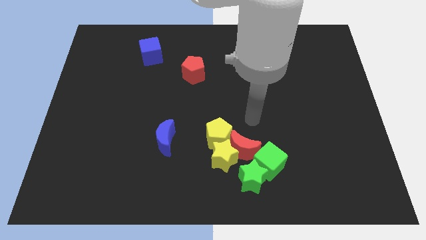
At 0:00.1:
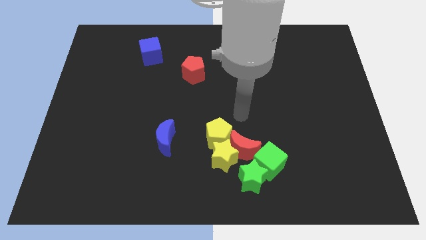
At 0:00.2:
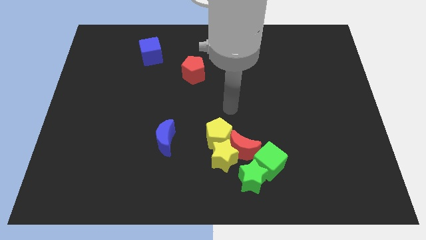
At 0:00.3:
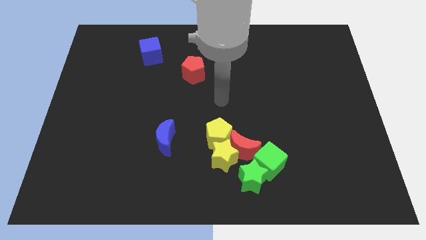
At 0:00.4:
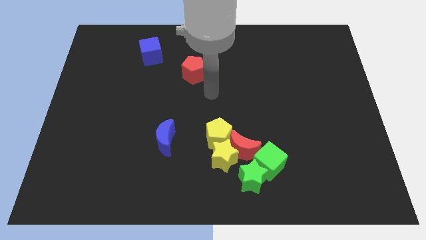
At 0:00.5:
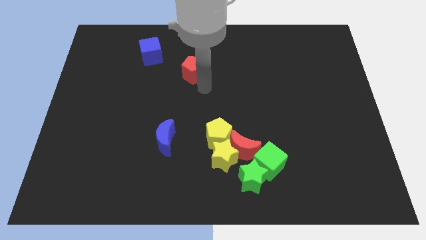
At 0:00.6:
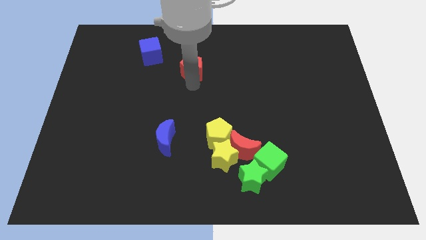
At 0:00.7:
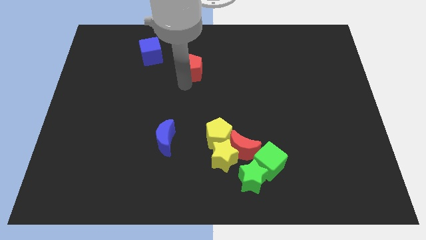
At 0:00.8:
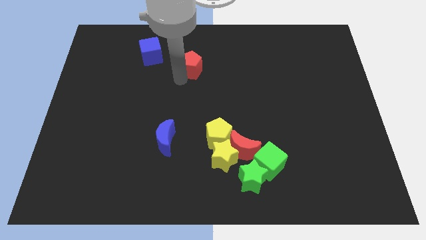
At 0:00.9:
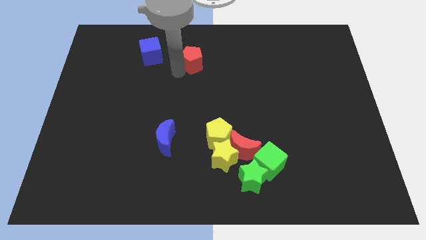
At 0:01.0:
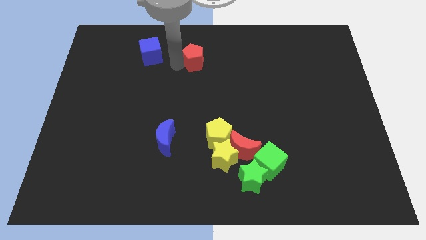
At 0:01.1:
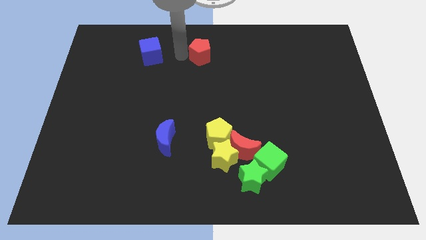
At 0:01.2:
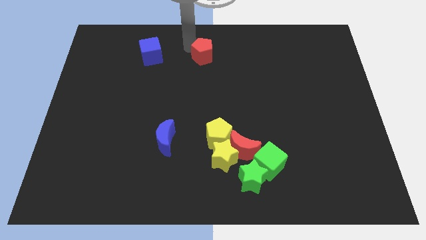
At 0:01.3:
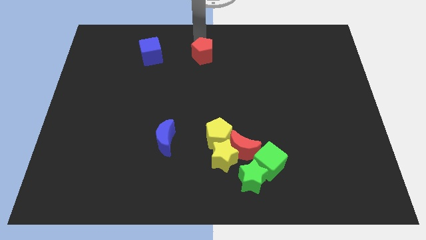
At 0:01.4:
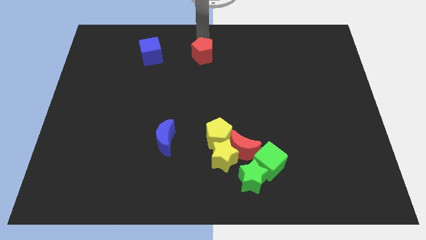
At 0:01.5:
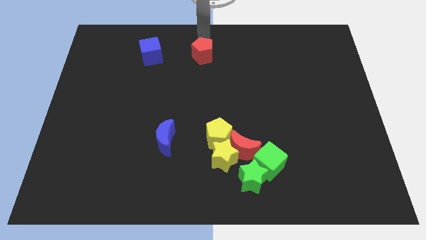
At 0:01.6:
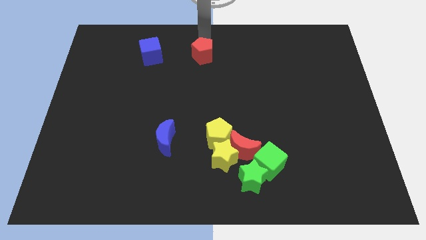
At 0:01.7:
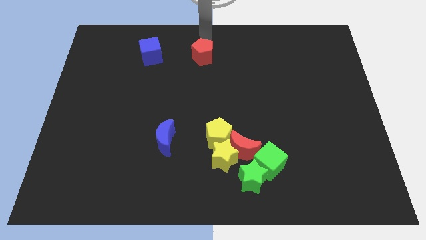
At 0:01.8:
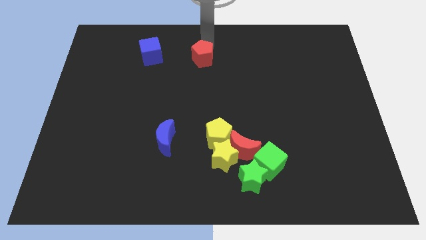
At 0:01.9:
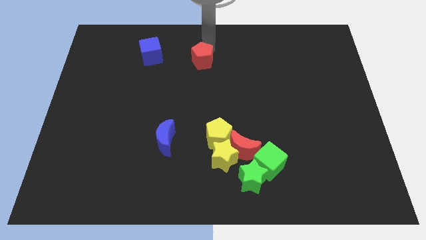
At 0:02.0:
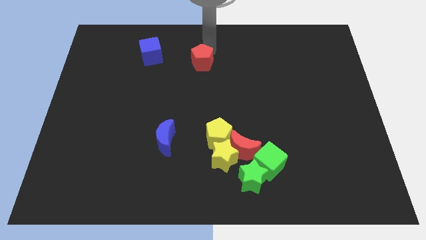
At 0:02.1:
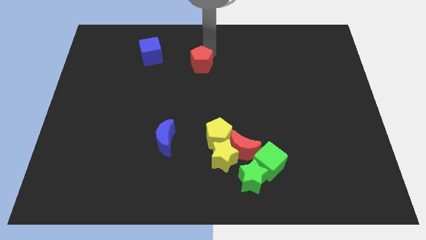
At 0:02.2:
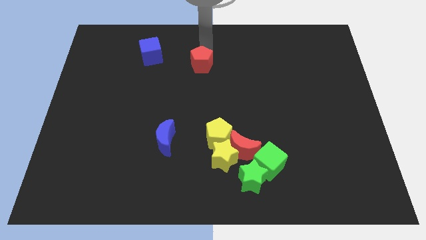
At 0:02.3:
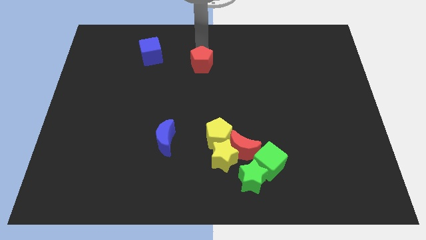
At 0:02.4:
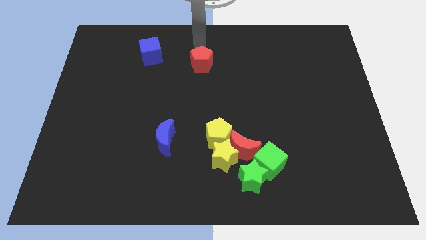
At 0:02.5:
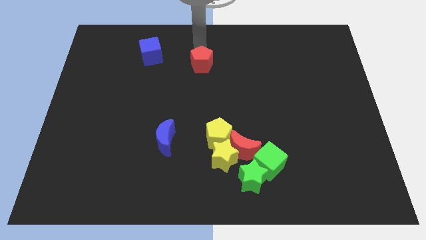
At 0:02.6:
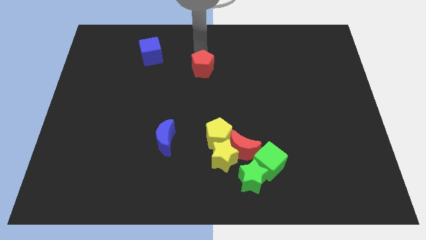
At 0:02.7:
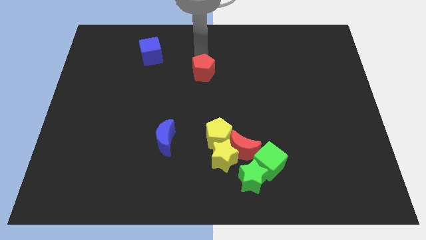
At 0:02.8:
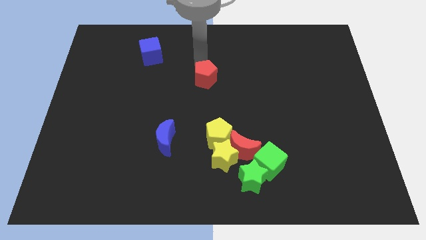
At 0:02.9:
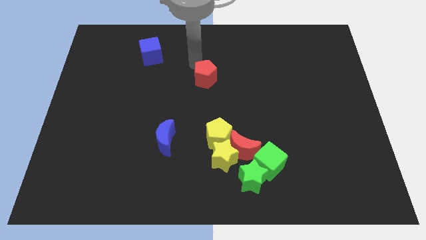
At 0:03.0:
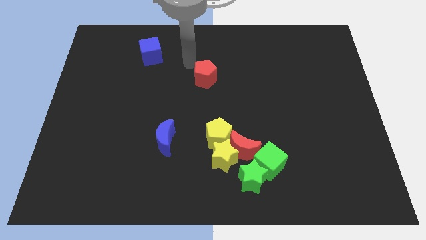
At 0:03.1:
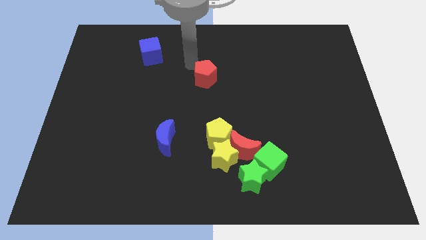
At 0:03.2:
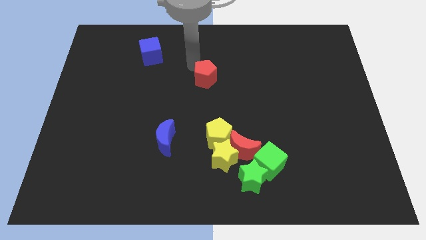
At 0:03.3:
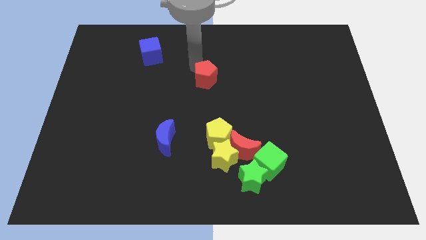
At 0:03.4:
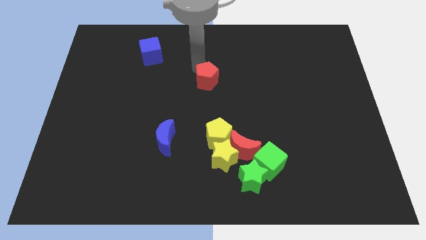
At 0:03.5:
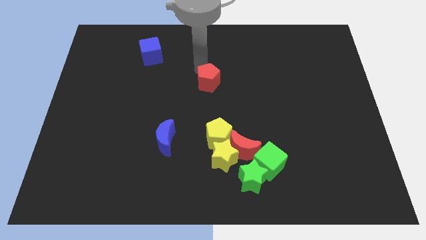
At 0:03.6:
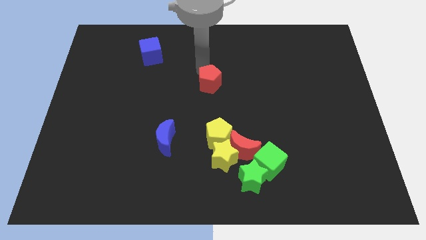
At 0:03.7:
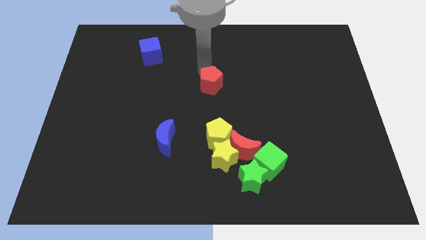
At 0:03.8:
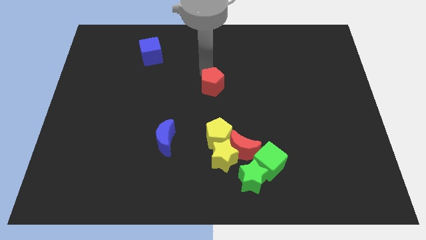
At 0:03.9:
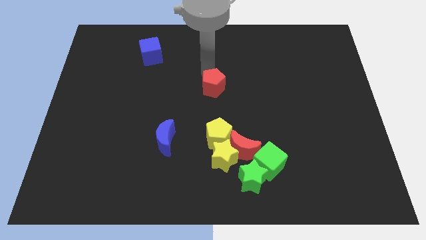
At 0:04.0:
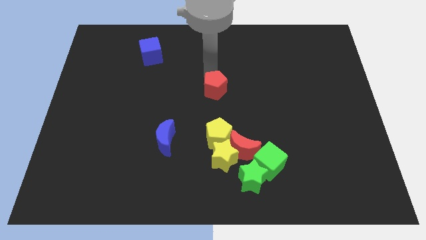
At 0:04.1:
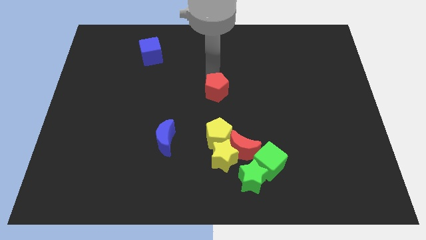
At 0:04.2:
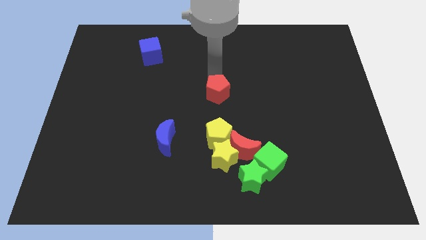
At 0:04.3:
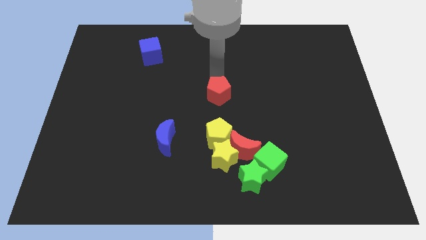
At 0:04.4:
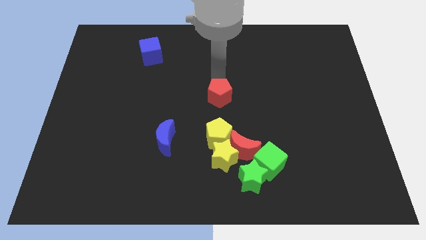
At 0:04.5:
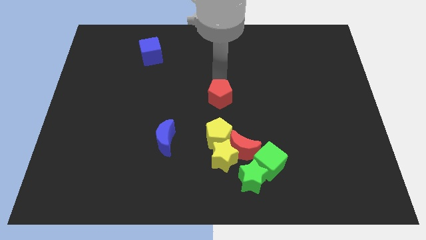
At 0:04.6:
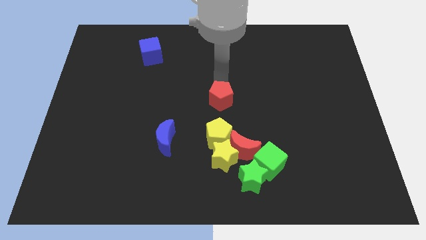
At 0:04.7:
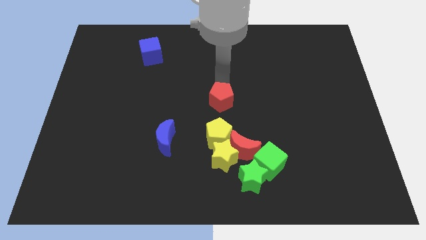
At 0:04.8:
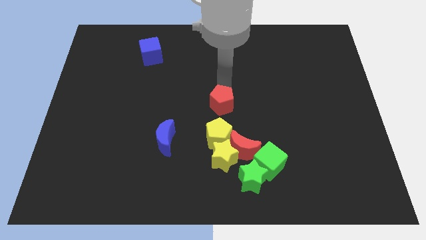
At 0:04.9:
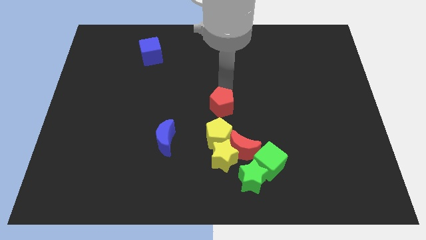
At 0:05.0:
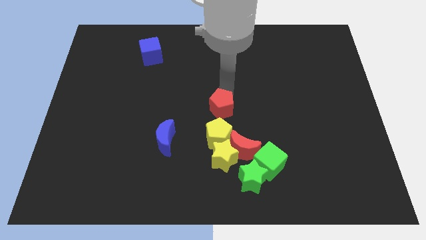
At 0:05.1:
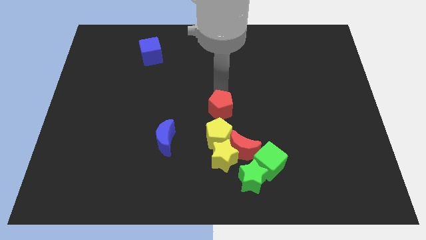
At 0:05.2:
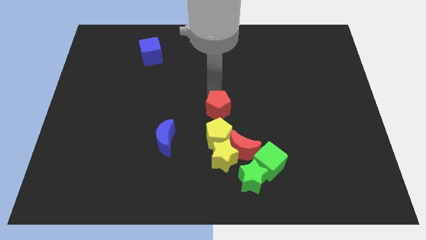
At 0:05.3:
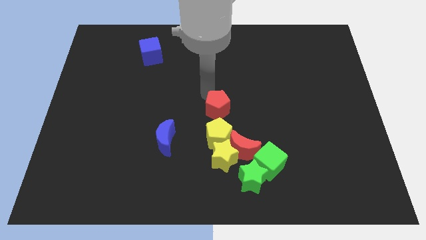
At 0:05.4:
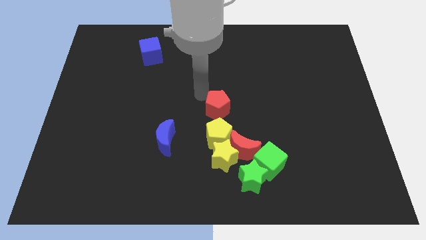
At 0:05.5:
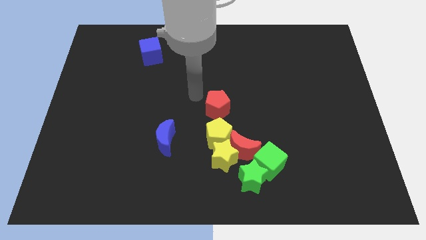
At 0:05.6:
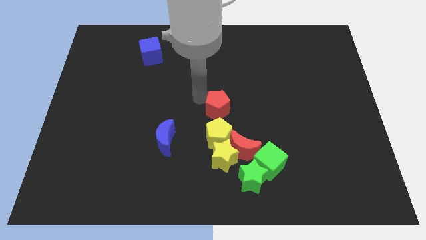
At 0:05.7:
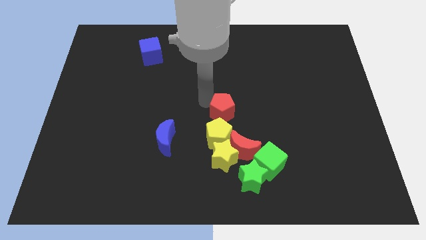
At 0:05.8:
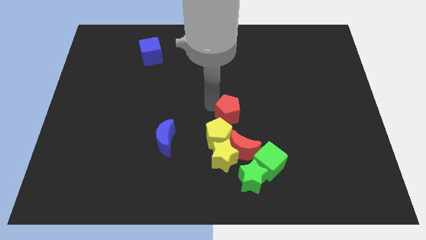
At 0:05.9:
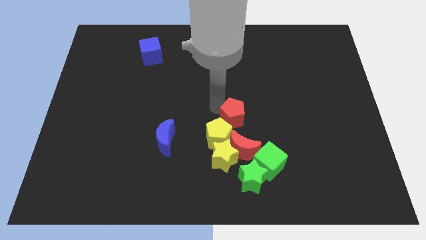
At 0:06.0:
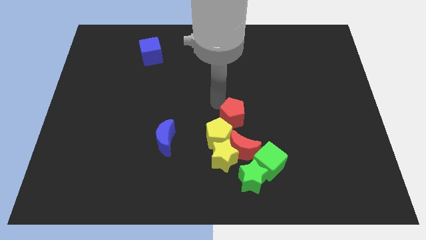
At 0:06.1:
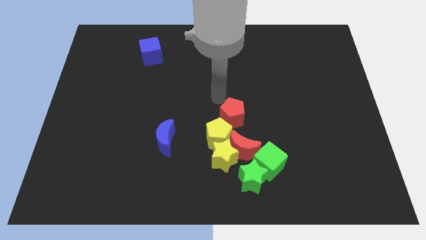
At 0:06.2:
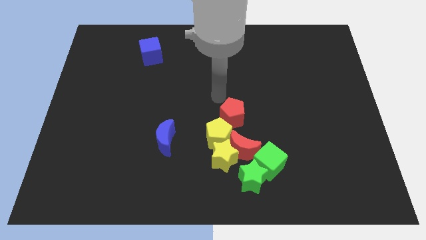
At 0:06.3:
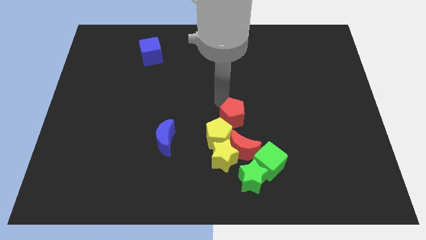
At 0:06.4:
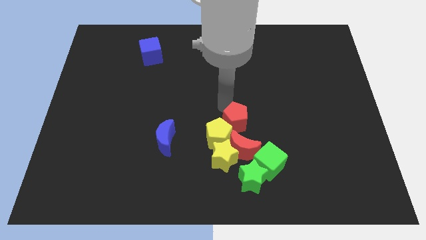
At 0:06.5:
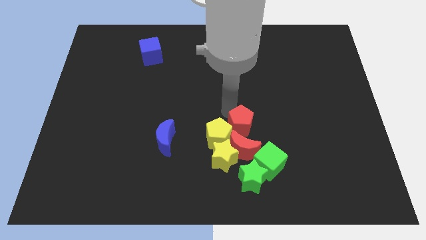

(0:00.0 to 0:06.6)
slide the red pentagon to the top right side of the yellow star
